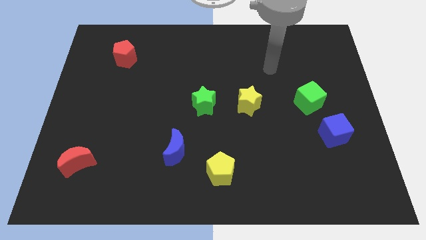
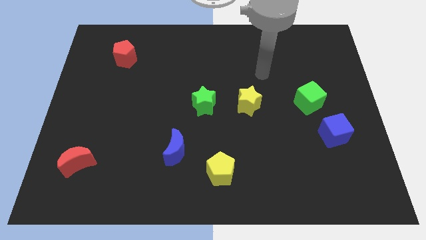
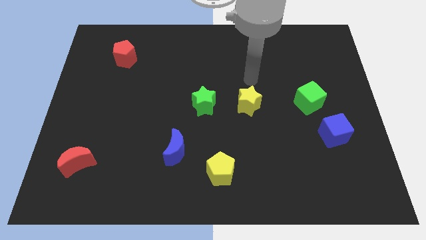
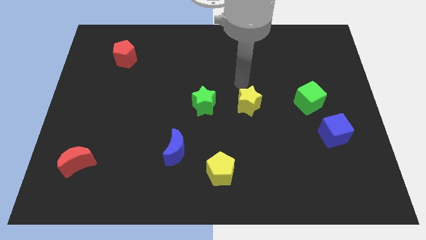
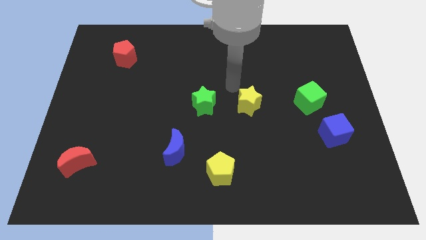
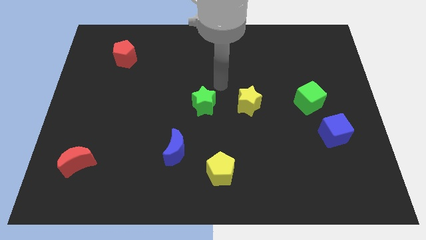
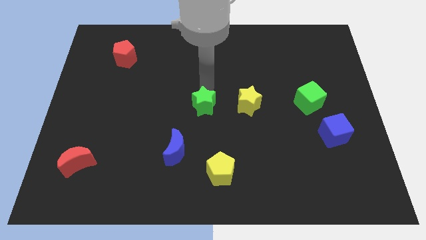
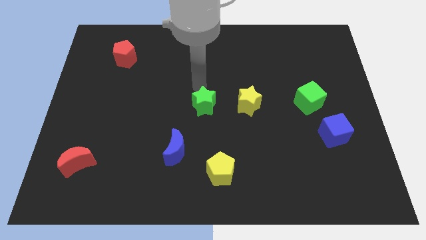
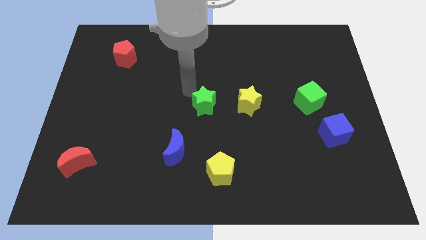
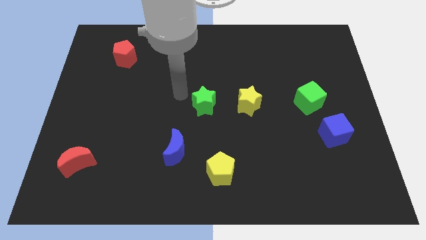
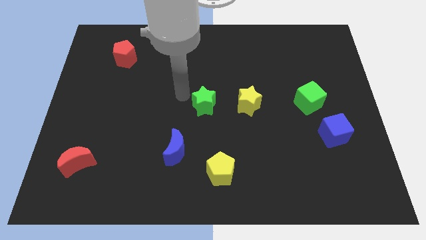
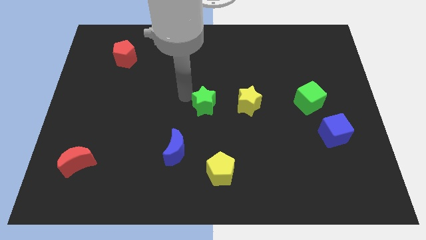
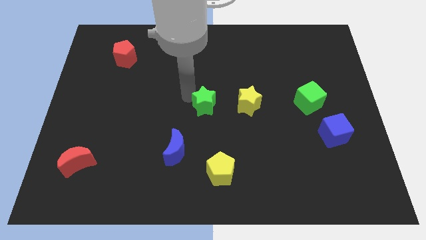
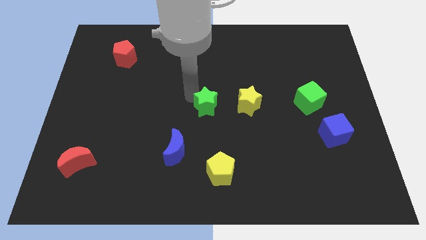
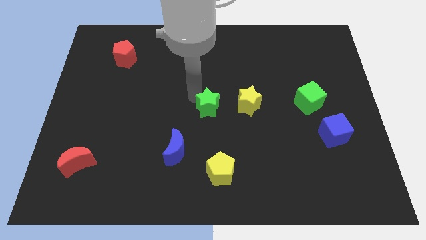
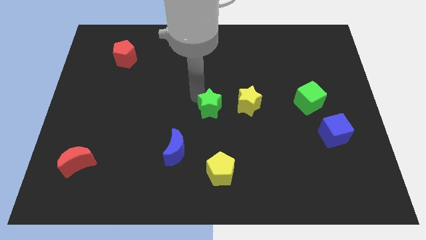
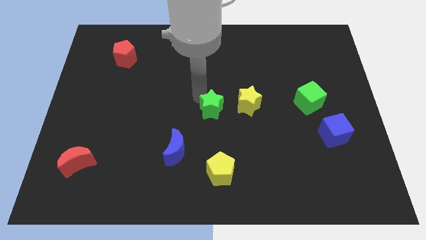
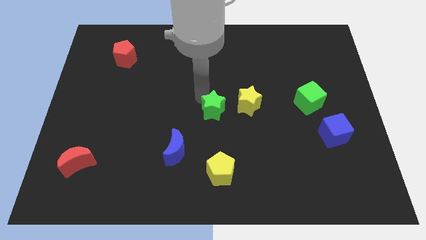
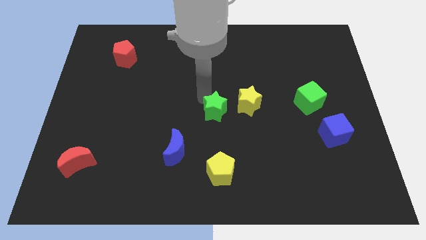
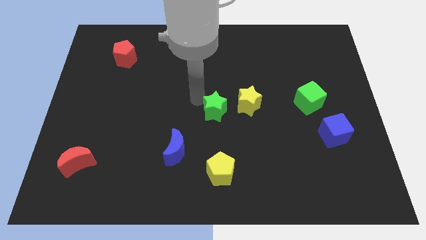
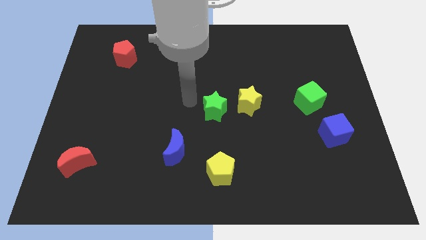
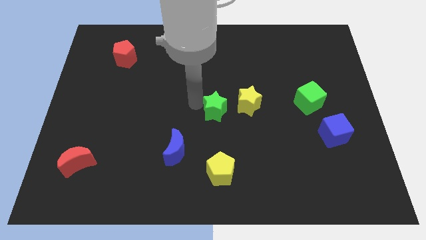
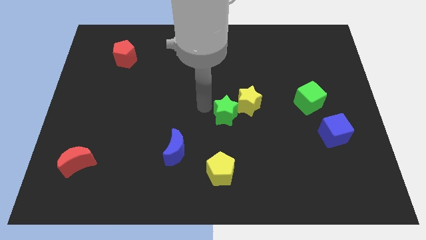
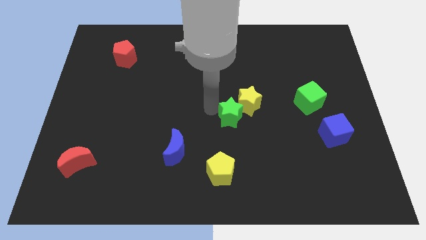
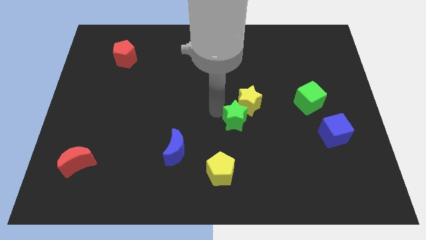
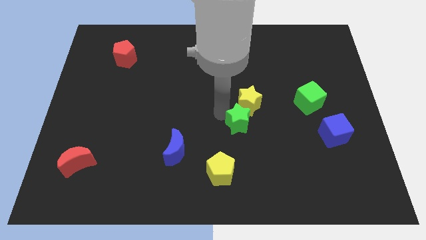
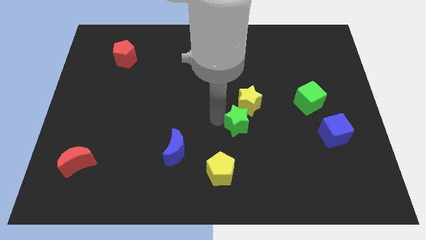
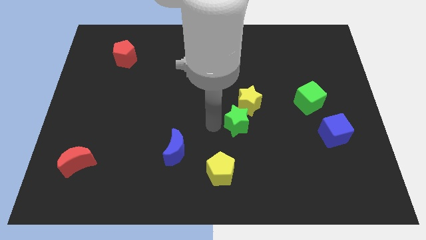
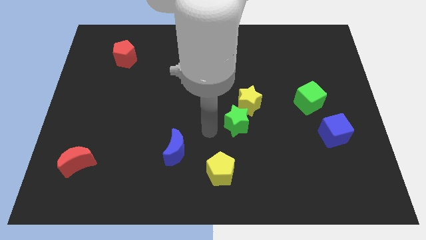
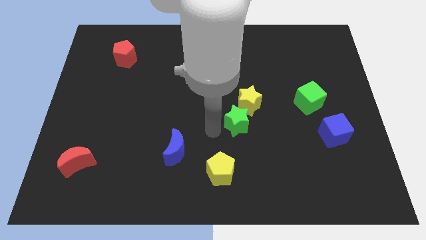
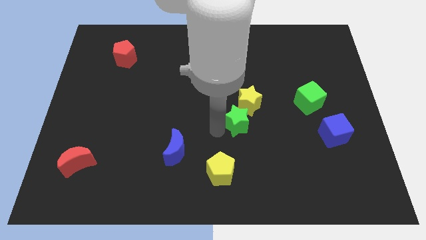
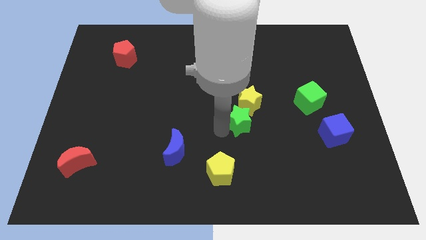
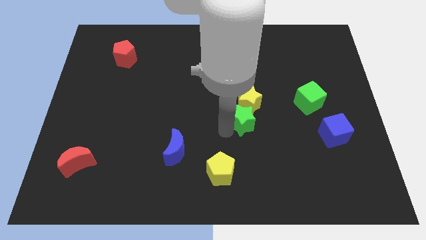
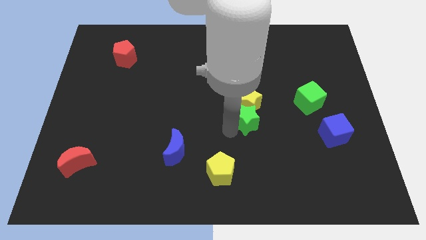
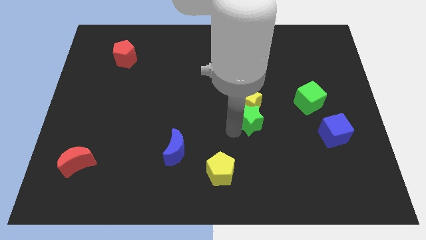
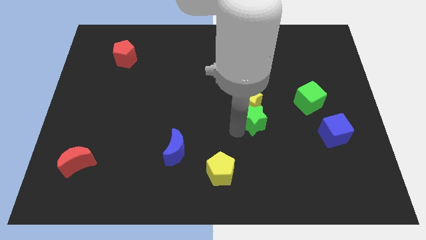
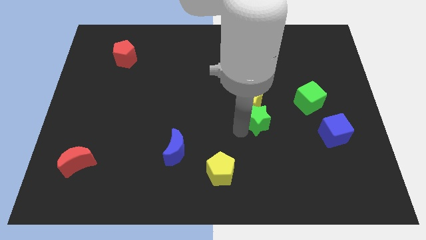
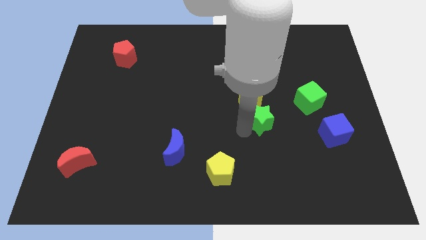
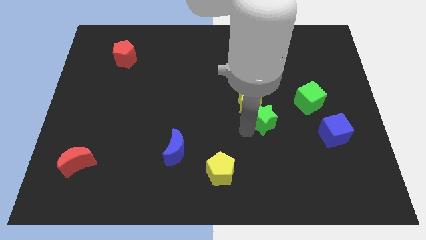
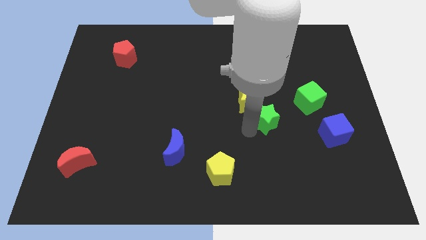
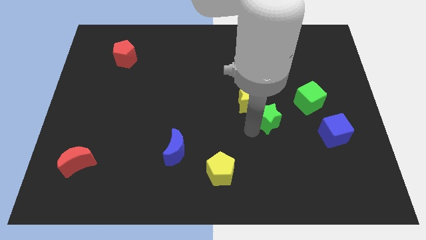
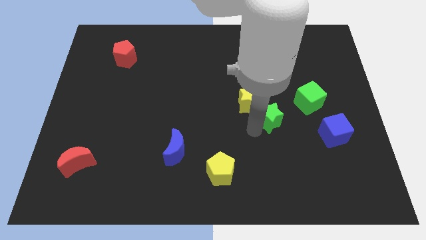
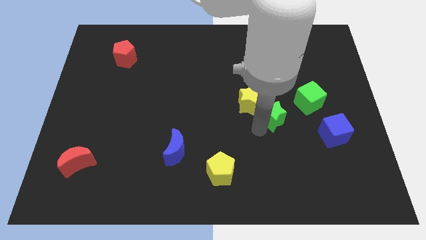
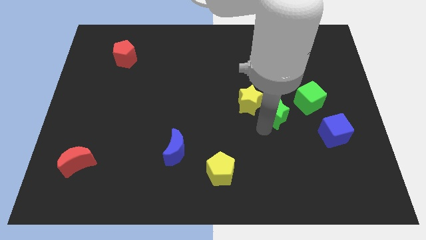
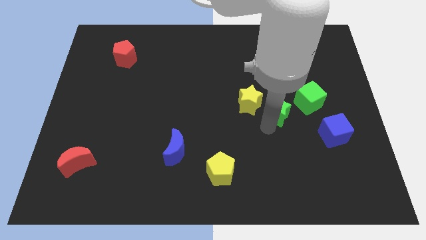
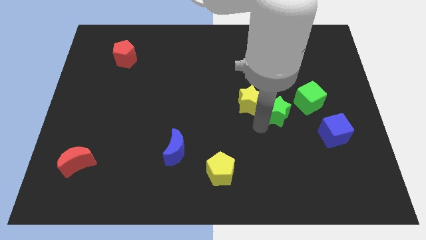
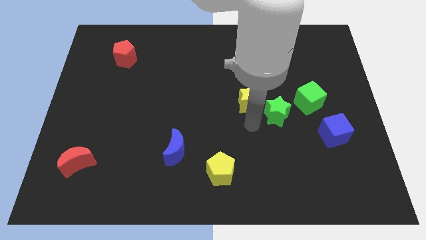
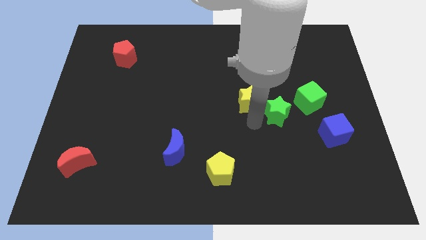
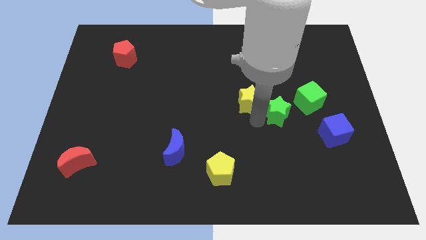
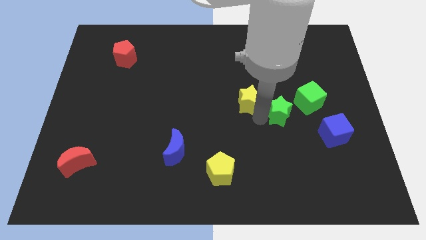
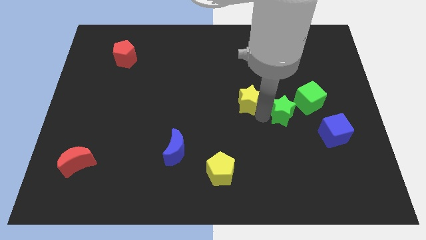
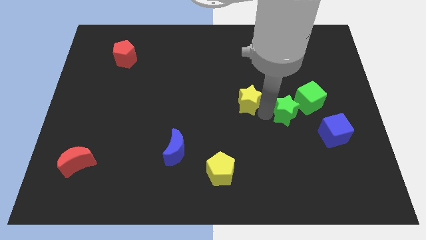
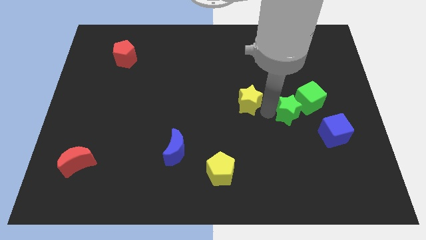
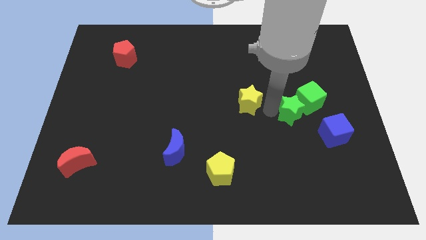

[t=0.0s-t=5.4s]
push the green star towards the green cube

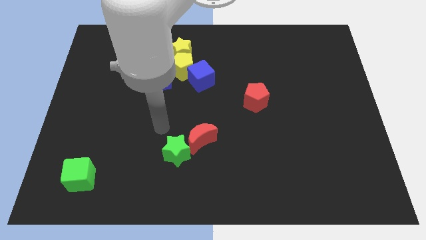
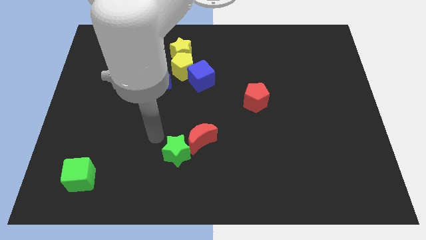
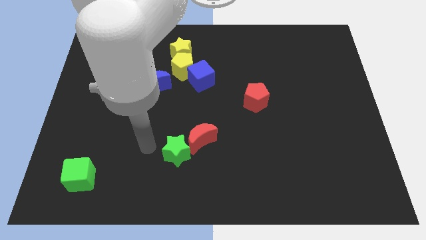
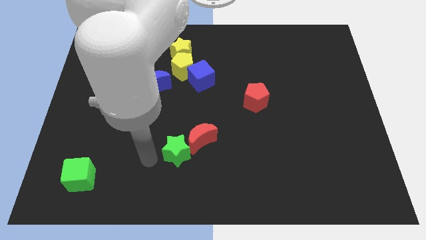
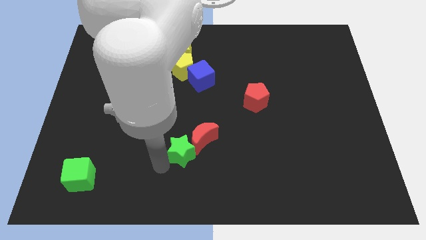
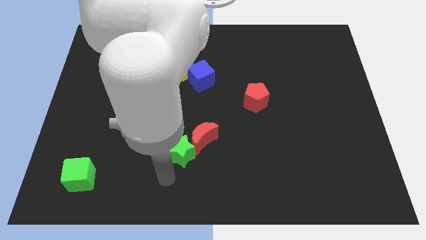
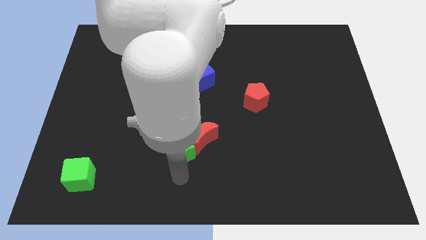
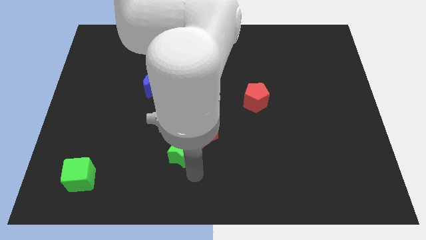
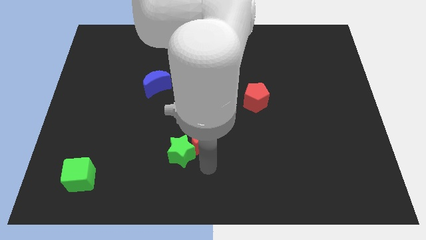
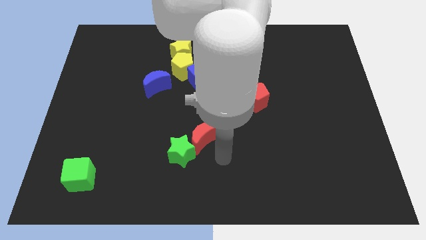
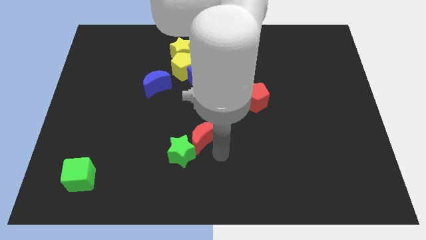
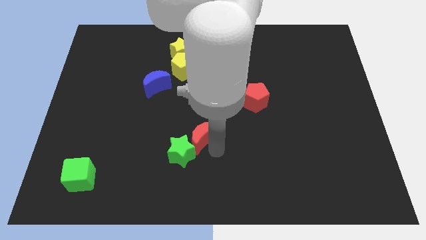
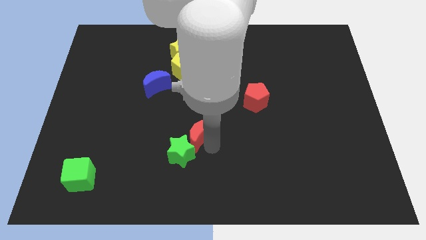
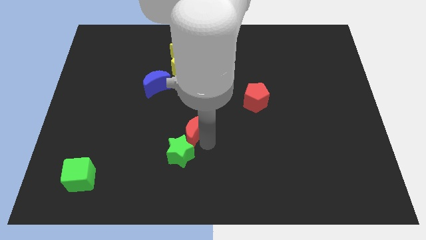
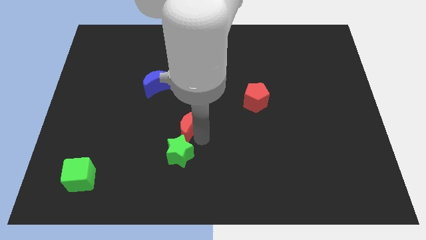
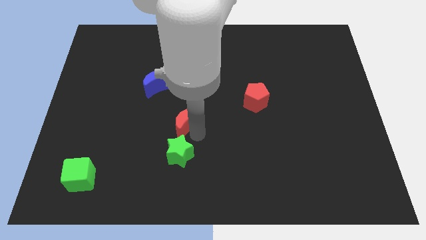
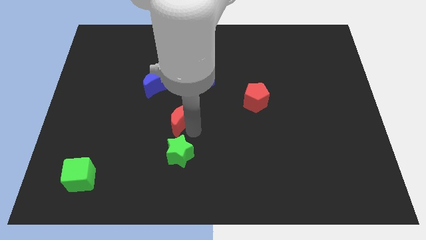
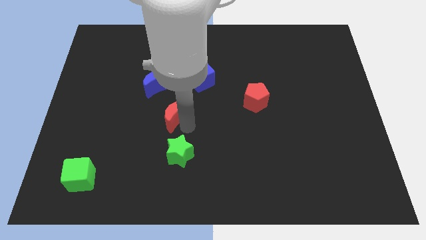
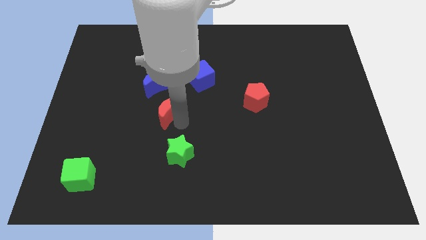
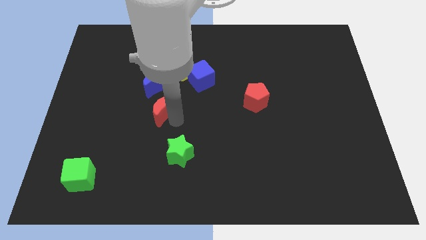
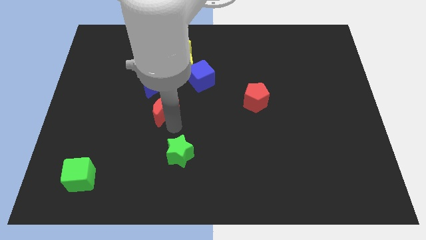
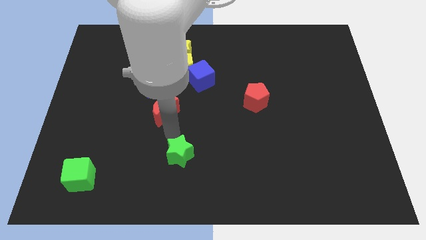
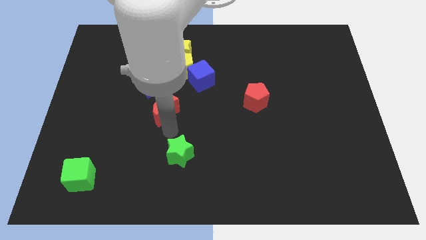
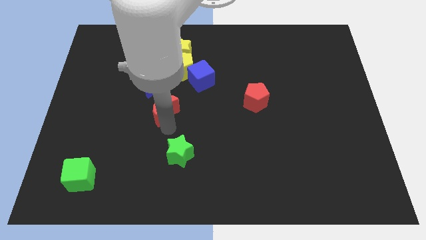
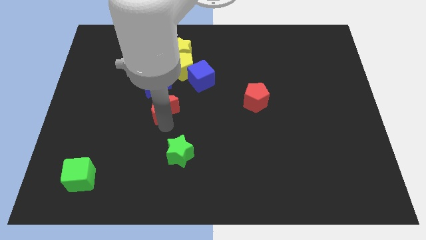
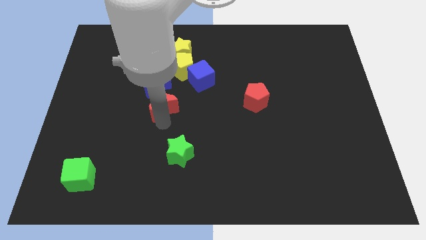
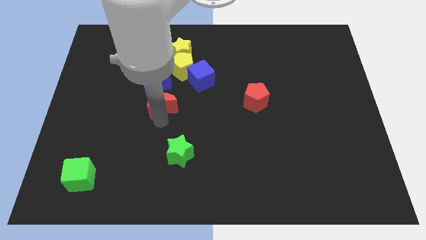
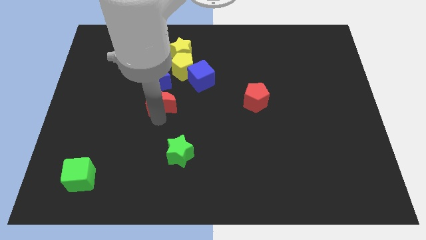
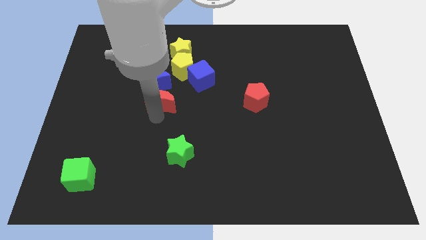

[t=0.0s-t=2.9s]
slide the red moon next to the blue moon
